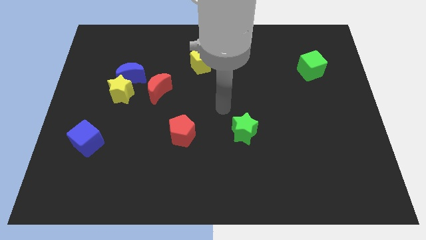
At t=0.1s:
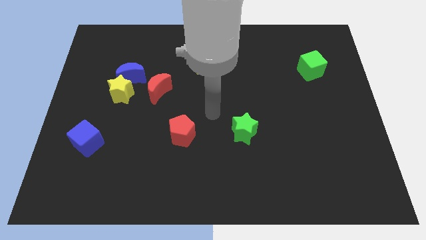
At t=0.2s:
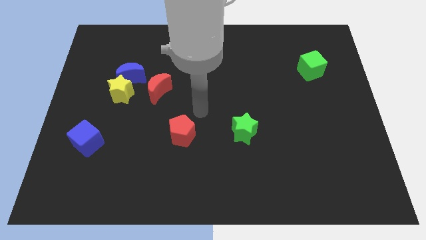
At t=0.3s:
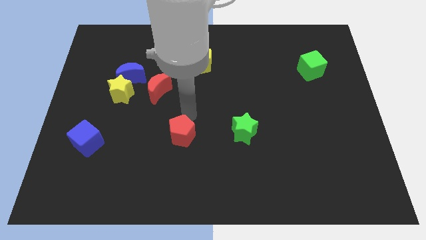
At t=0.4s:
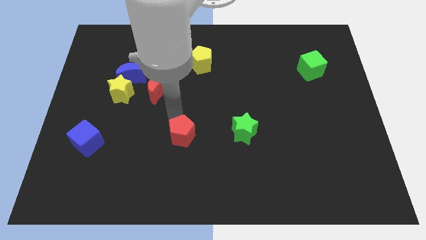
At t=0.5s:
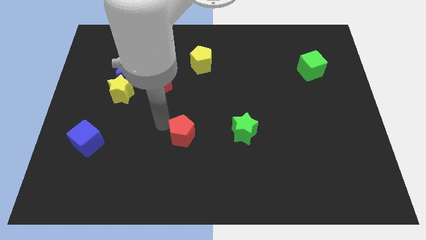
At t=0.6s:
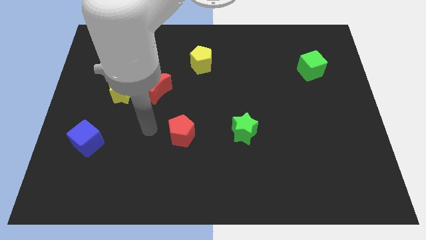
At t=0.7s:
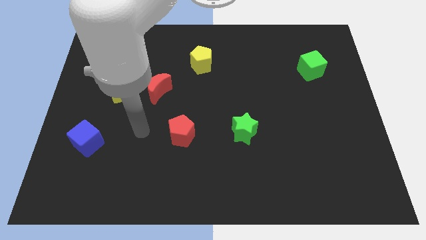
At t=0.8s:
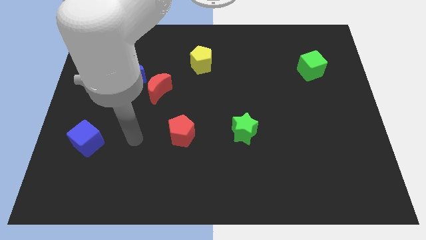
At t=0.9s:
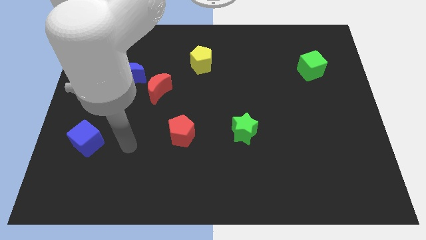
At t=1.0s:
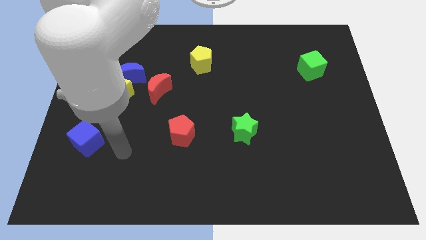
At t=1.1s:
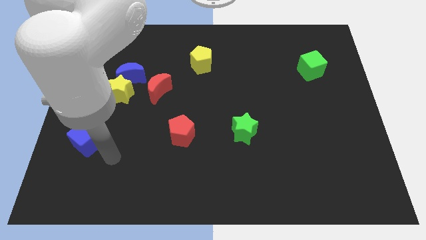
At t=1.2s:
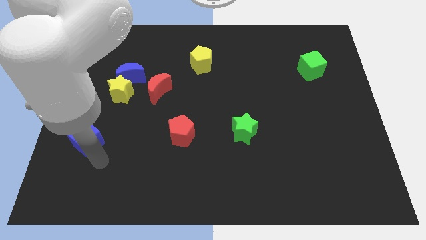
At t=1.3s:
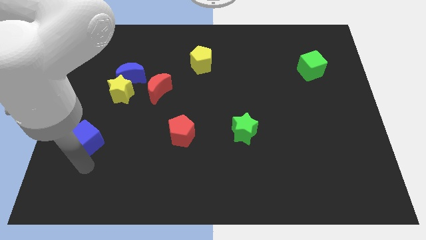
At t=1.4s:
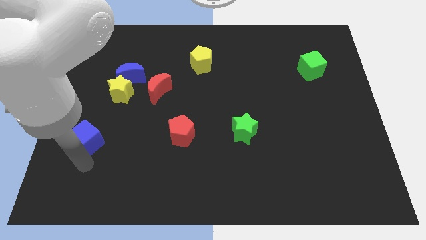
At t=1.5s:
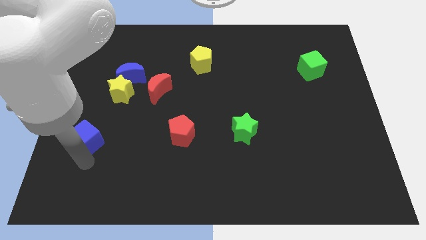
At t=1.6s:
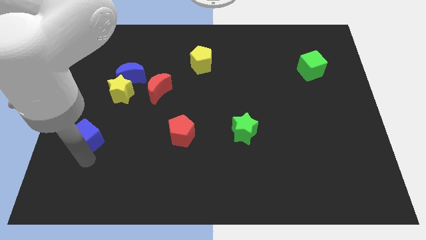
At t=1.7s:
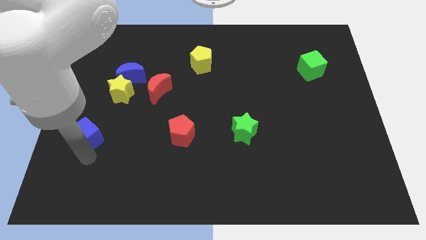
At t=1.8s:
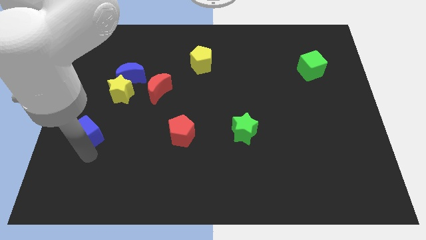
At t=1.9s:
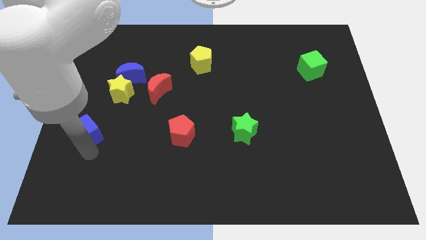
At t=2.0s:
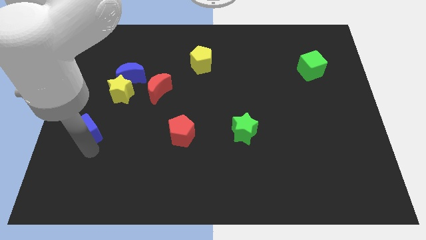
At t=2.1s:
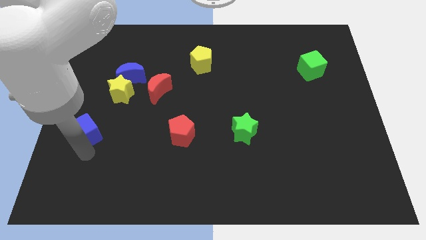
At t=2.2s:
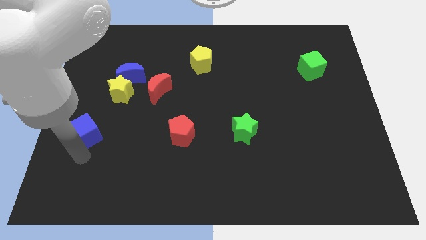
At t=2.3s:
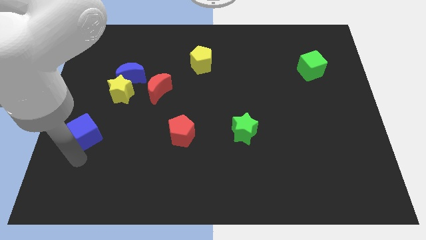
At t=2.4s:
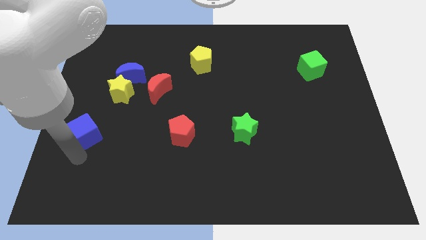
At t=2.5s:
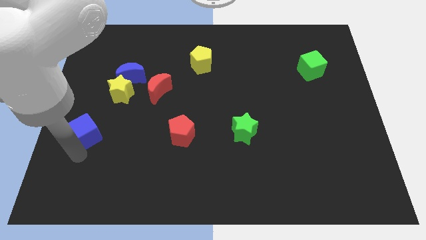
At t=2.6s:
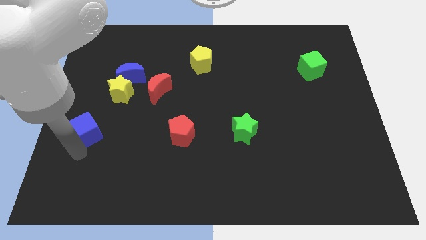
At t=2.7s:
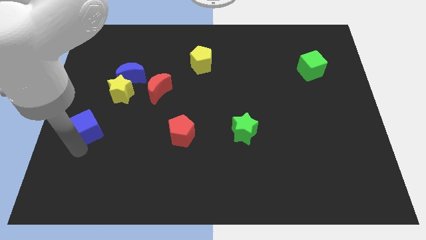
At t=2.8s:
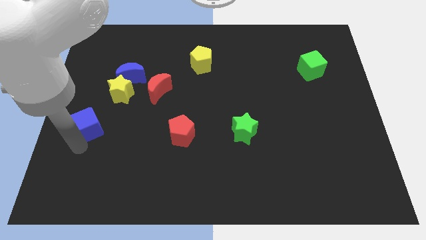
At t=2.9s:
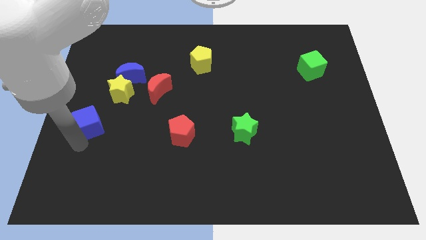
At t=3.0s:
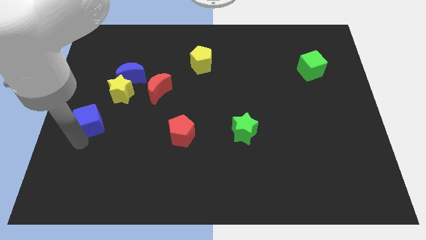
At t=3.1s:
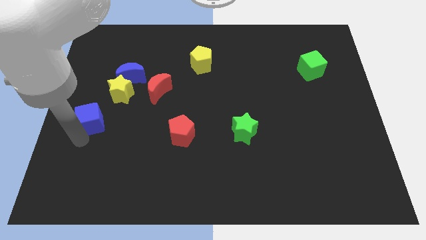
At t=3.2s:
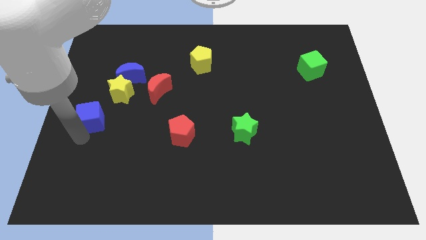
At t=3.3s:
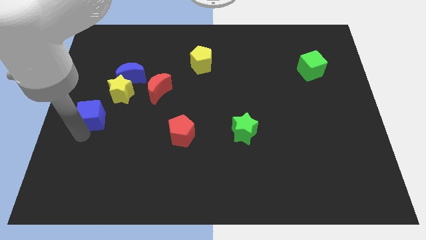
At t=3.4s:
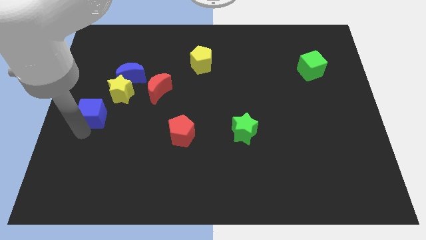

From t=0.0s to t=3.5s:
slide the blue cube up a bit

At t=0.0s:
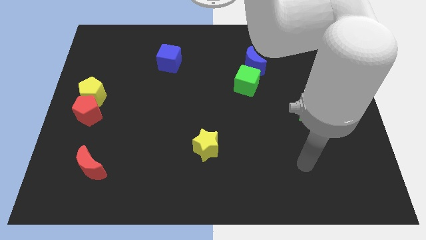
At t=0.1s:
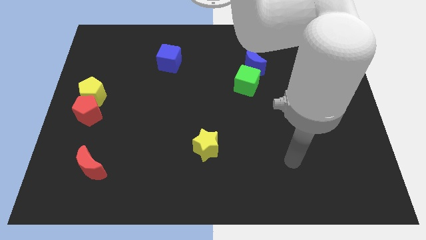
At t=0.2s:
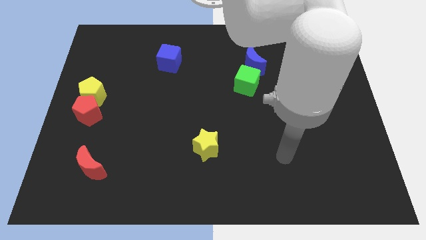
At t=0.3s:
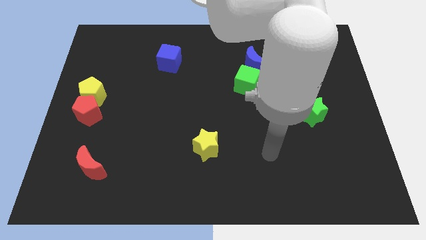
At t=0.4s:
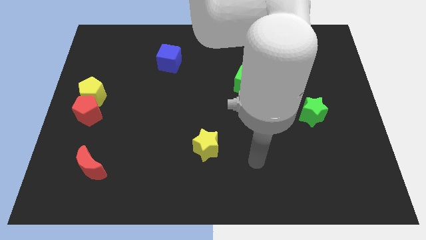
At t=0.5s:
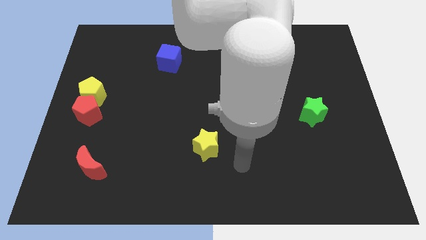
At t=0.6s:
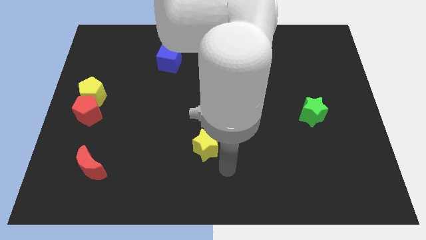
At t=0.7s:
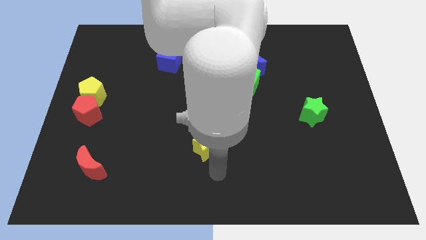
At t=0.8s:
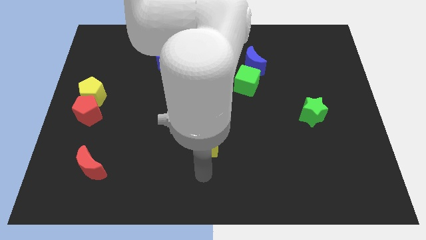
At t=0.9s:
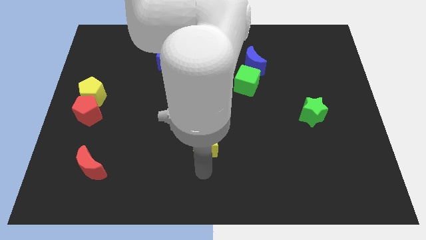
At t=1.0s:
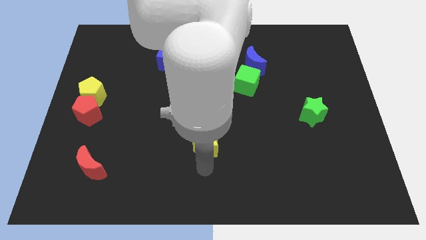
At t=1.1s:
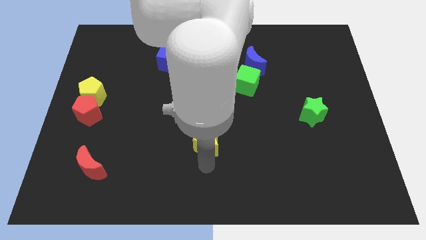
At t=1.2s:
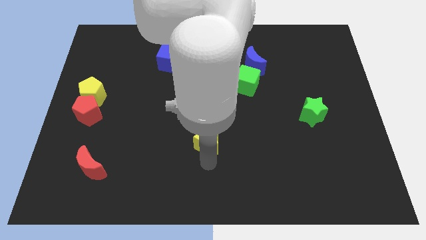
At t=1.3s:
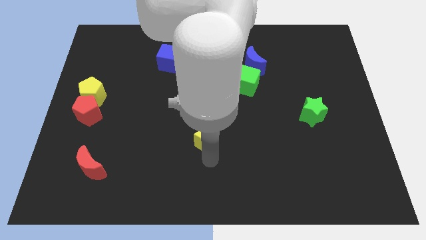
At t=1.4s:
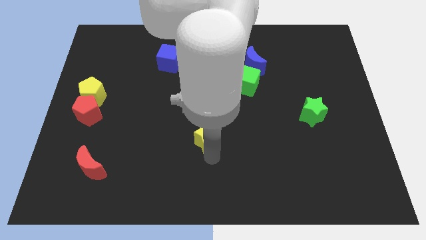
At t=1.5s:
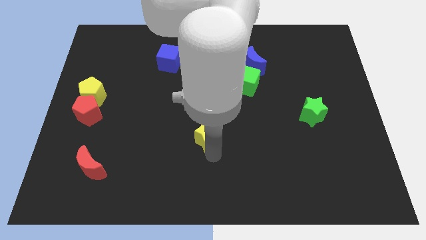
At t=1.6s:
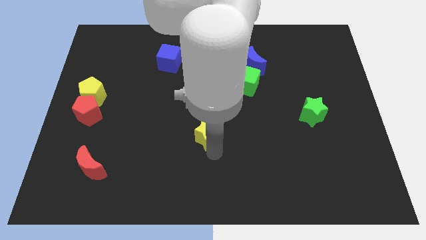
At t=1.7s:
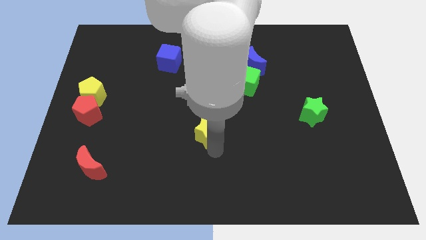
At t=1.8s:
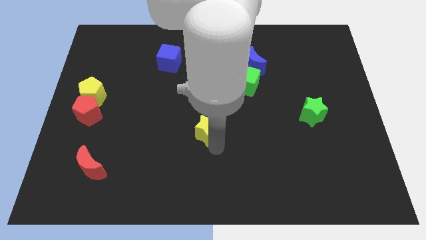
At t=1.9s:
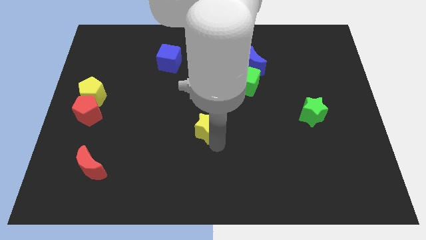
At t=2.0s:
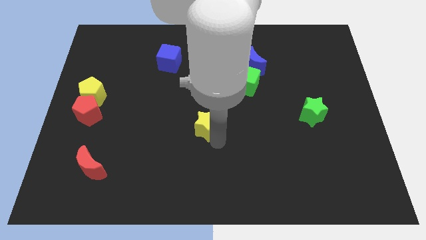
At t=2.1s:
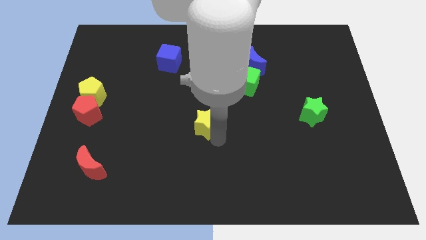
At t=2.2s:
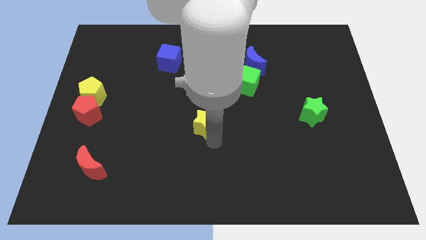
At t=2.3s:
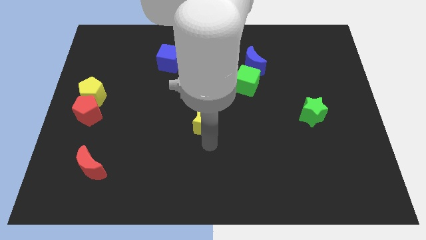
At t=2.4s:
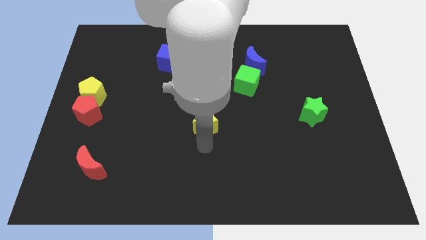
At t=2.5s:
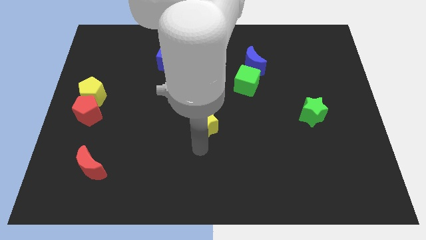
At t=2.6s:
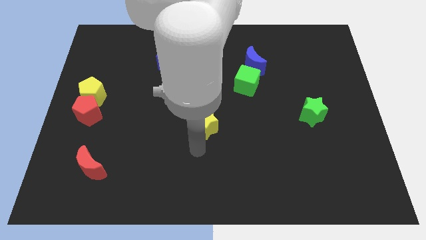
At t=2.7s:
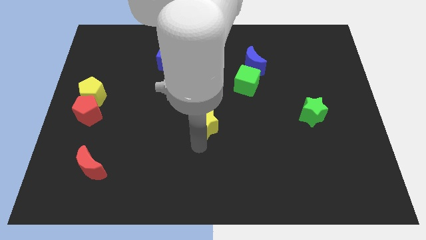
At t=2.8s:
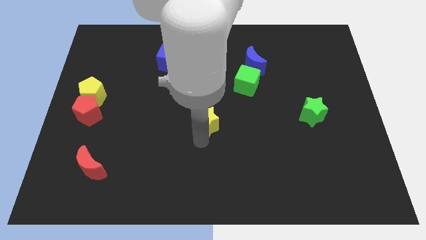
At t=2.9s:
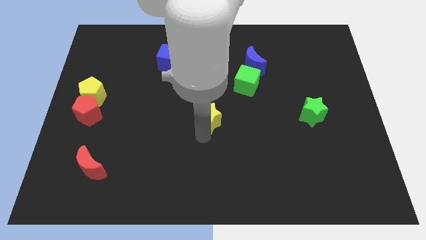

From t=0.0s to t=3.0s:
move the yellow star a little up

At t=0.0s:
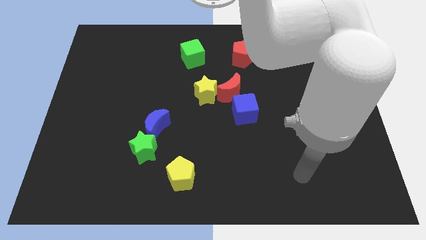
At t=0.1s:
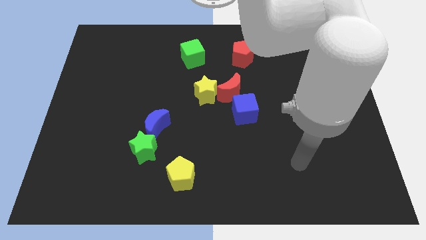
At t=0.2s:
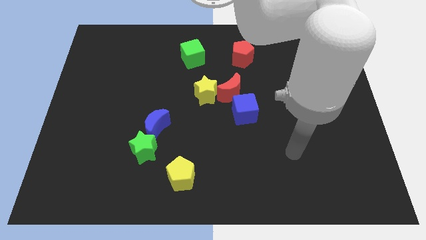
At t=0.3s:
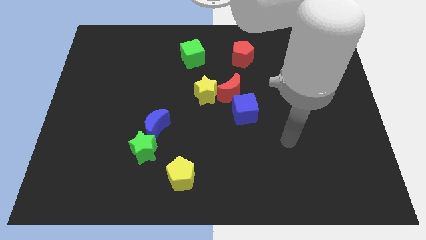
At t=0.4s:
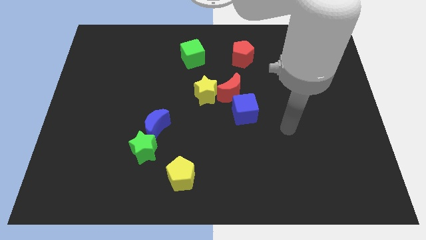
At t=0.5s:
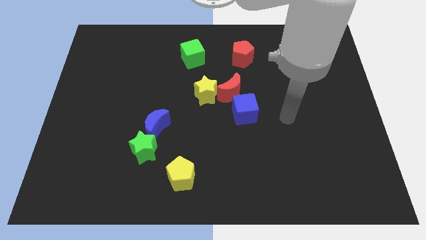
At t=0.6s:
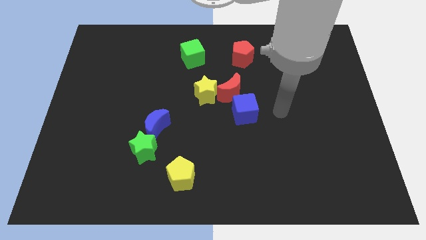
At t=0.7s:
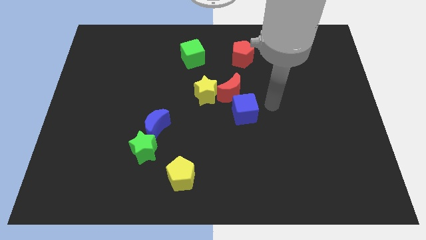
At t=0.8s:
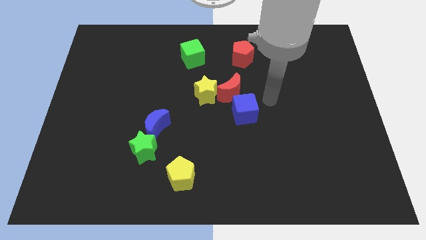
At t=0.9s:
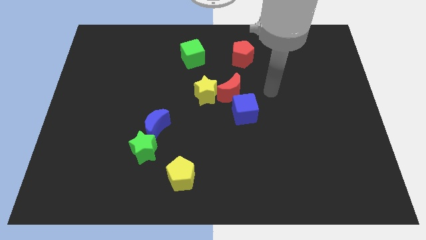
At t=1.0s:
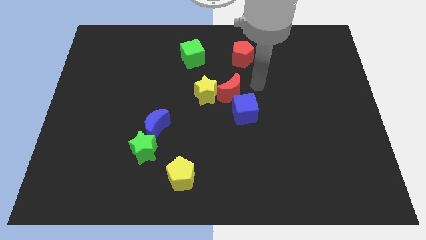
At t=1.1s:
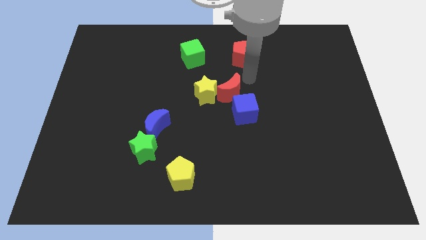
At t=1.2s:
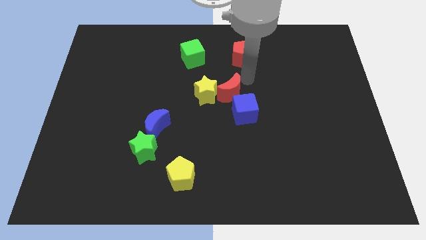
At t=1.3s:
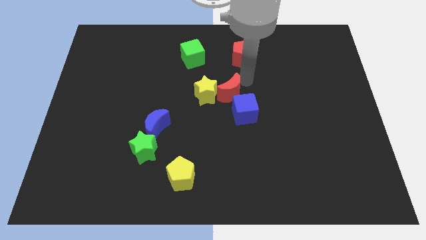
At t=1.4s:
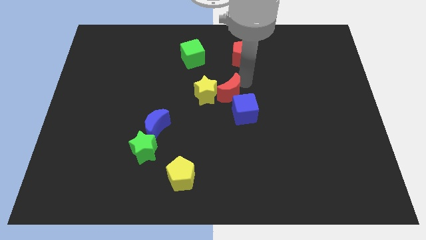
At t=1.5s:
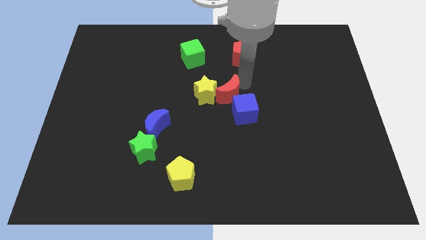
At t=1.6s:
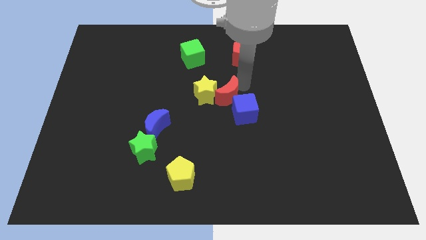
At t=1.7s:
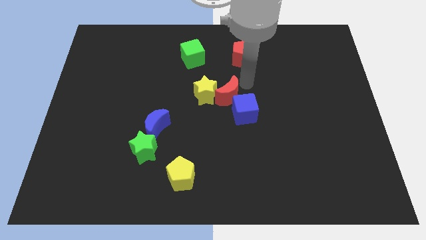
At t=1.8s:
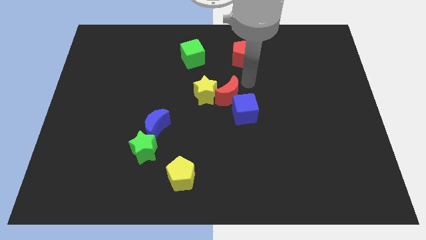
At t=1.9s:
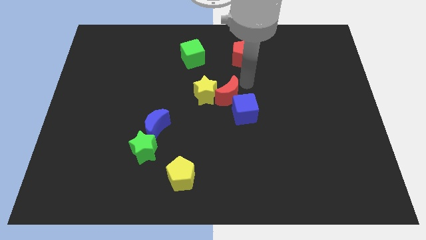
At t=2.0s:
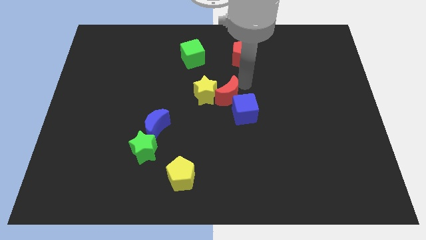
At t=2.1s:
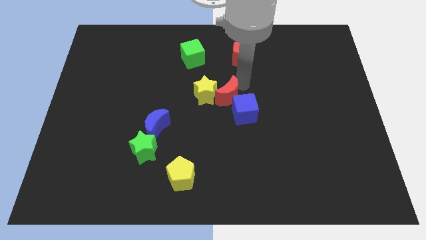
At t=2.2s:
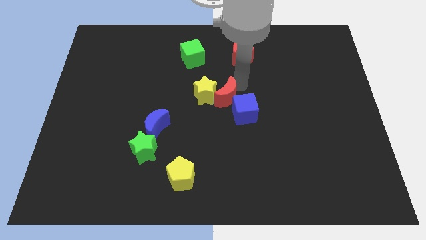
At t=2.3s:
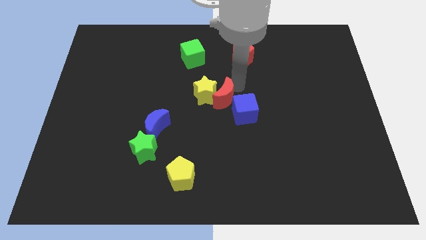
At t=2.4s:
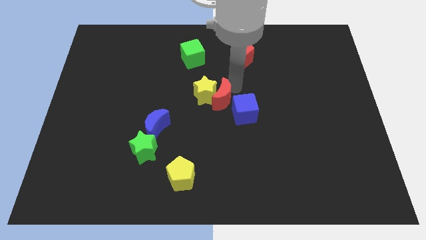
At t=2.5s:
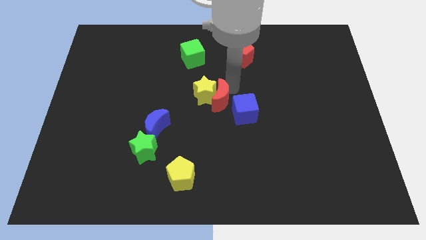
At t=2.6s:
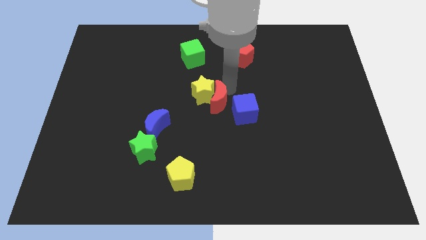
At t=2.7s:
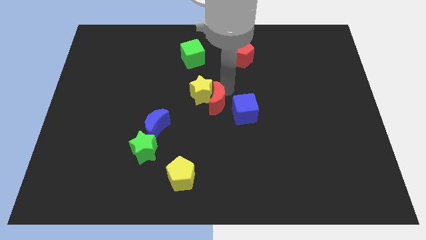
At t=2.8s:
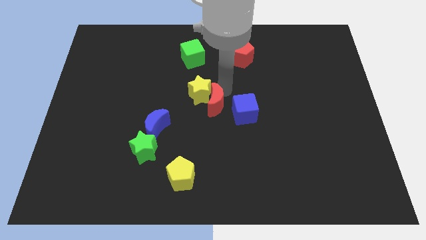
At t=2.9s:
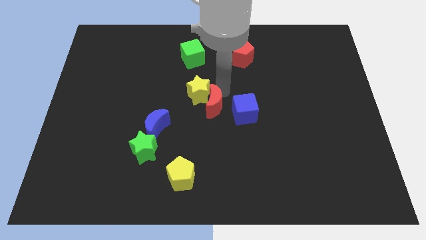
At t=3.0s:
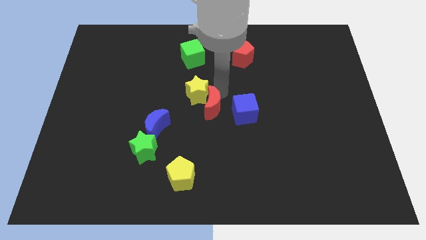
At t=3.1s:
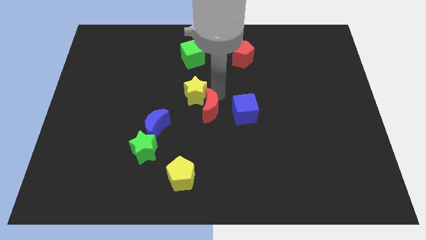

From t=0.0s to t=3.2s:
move the red moon a little bit diagonally downwards and left
